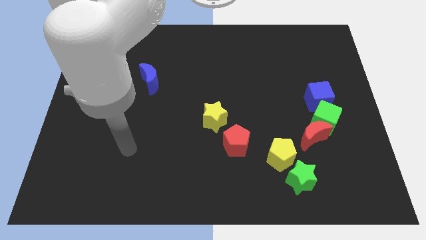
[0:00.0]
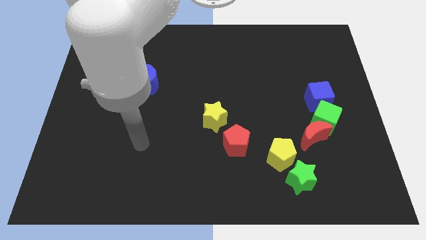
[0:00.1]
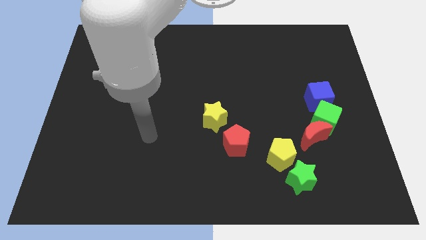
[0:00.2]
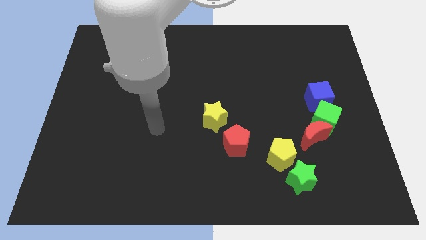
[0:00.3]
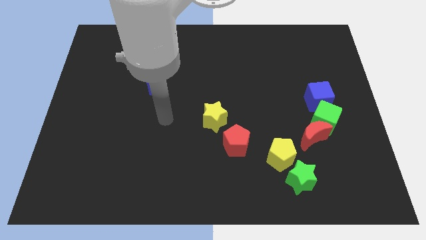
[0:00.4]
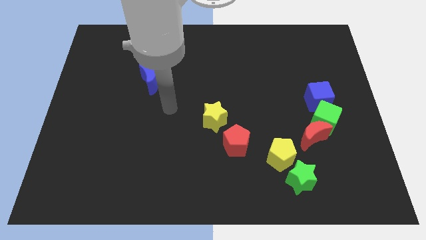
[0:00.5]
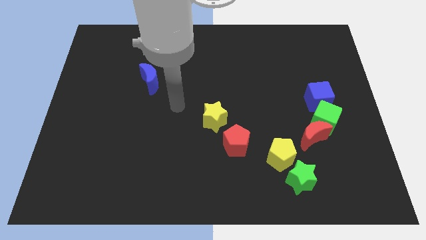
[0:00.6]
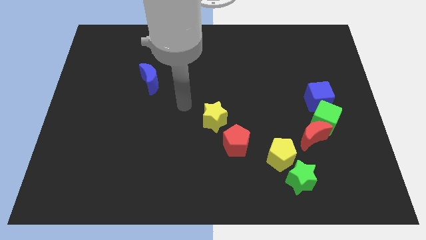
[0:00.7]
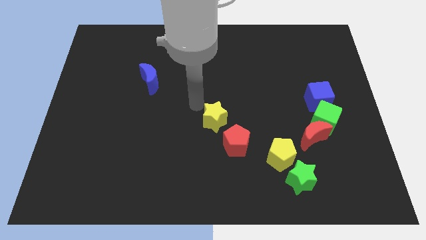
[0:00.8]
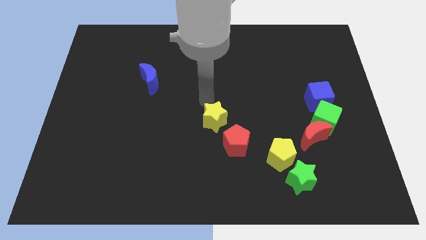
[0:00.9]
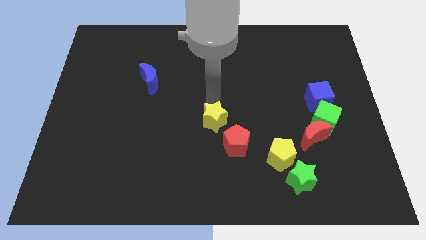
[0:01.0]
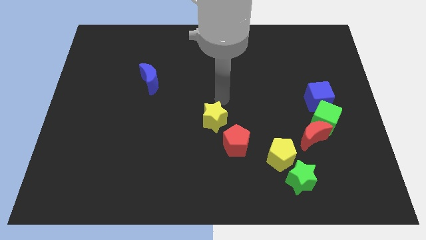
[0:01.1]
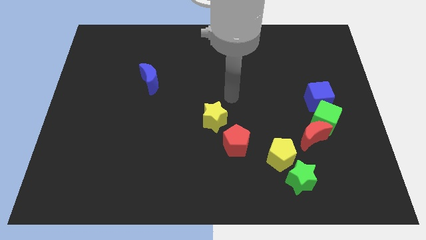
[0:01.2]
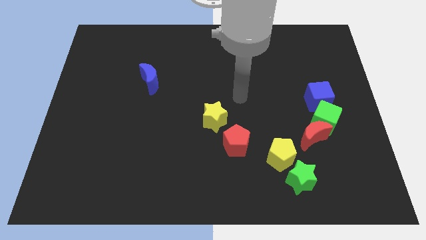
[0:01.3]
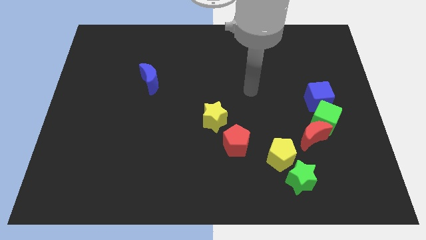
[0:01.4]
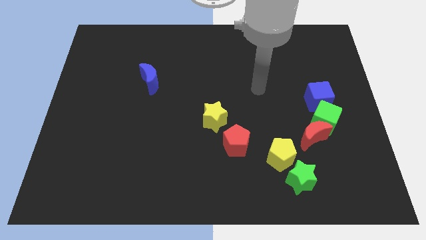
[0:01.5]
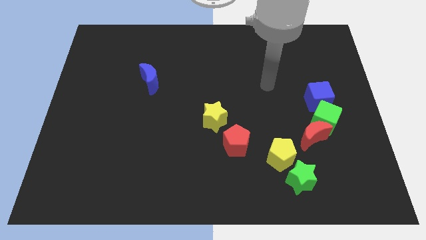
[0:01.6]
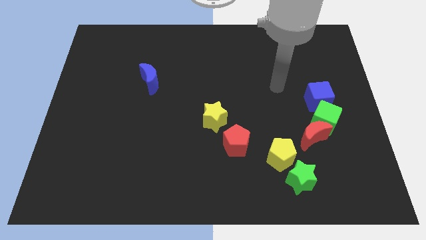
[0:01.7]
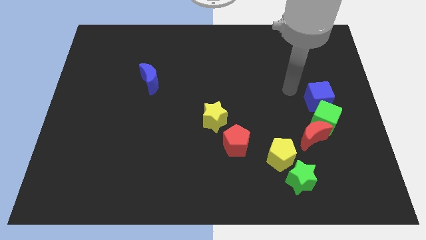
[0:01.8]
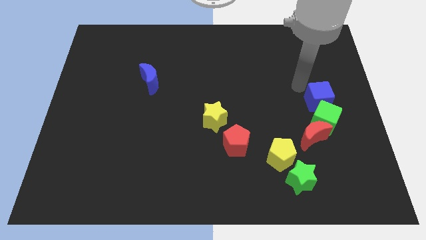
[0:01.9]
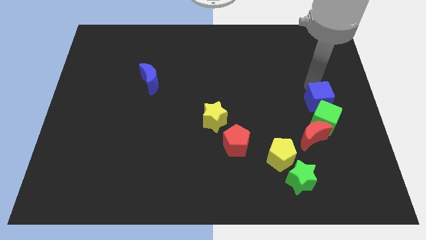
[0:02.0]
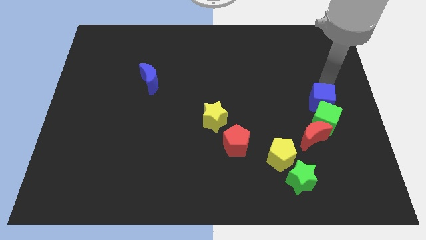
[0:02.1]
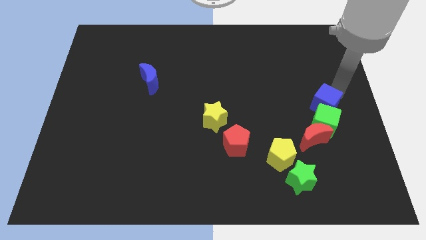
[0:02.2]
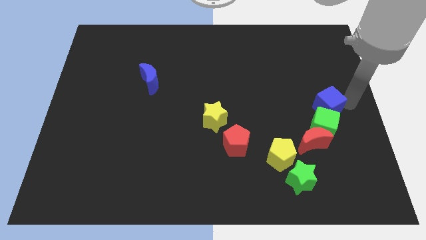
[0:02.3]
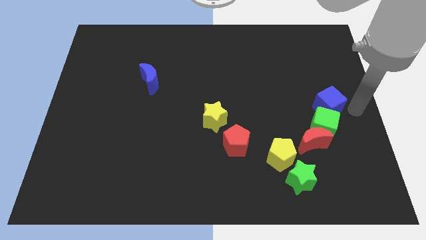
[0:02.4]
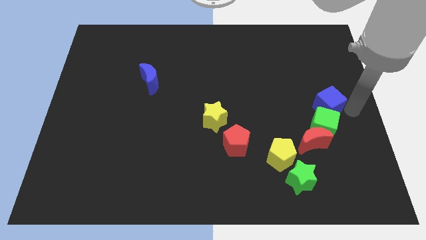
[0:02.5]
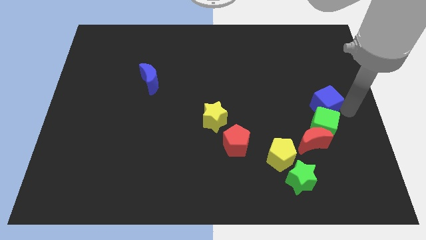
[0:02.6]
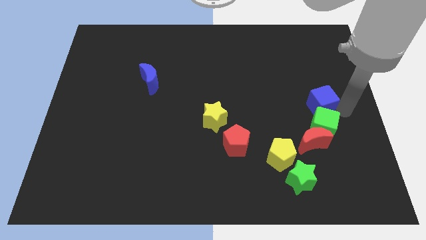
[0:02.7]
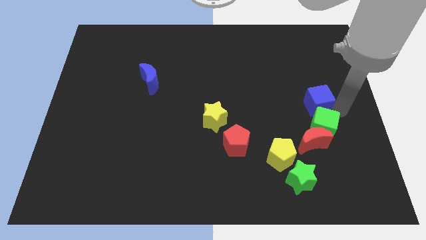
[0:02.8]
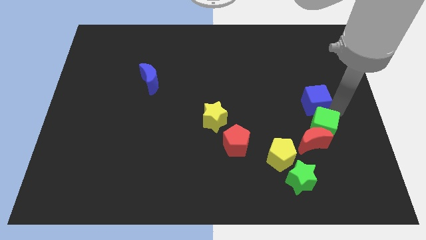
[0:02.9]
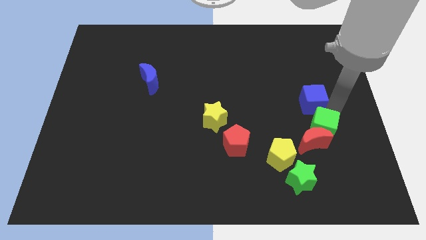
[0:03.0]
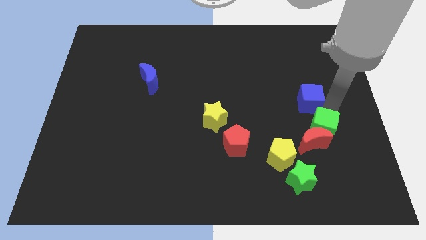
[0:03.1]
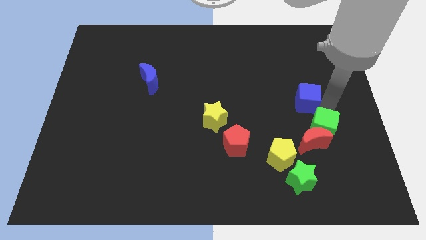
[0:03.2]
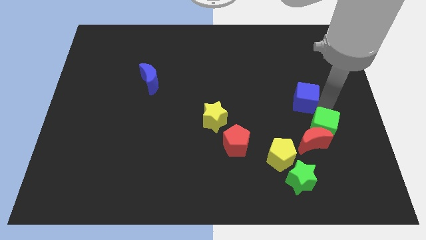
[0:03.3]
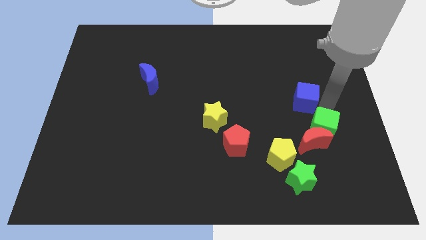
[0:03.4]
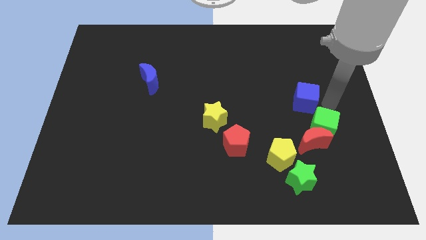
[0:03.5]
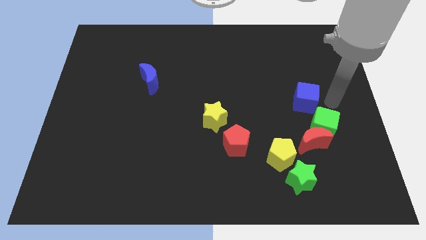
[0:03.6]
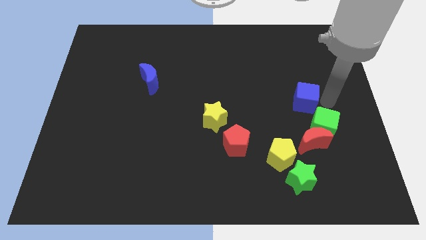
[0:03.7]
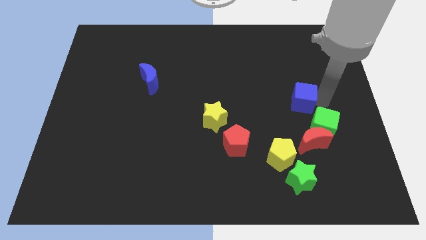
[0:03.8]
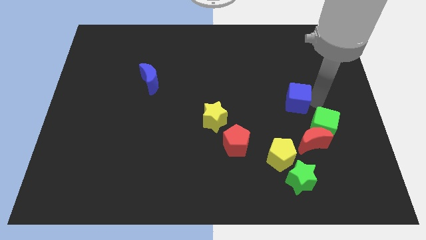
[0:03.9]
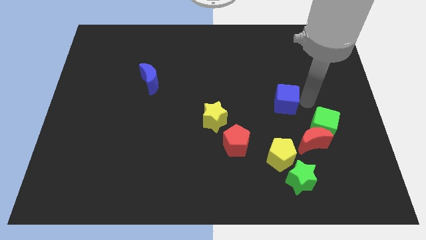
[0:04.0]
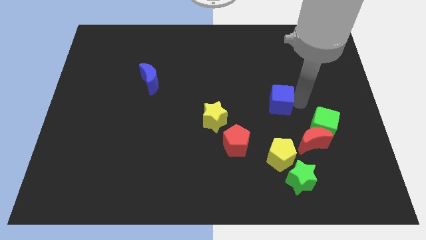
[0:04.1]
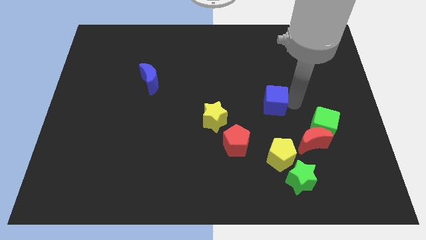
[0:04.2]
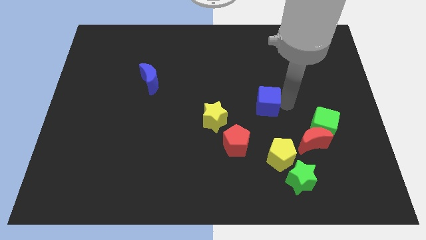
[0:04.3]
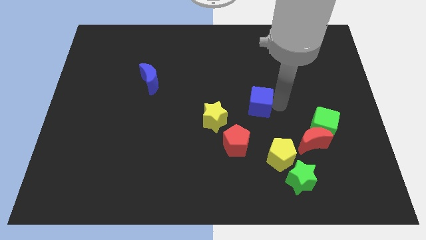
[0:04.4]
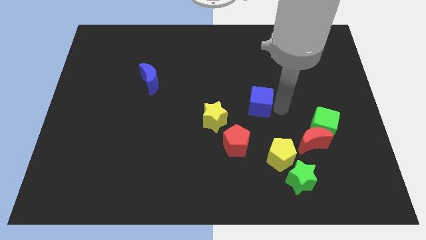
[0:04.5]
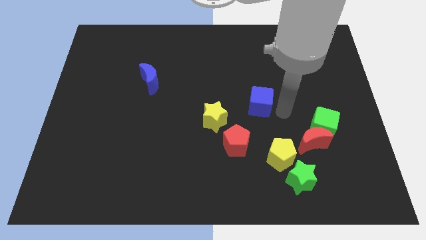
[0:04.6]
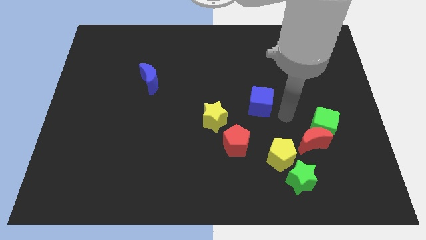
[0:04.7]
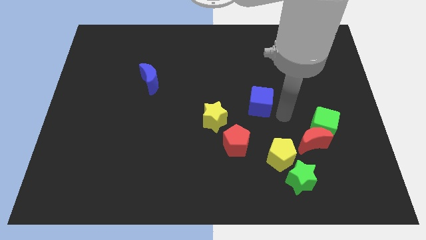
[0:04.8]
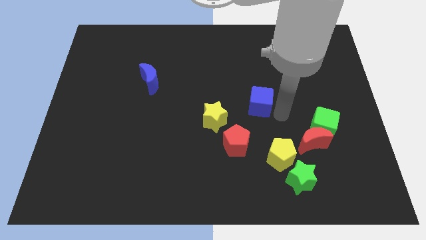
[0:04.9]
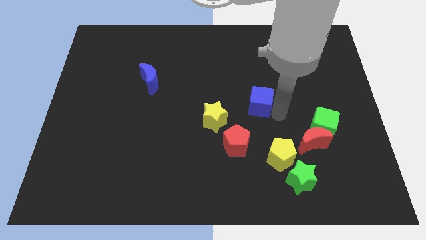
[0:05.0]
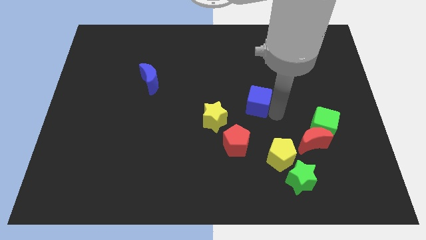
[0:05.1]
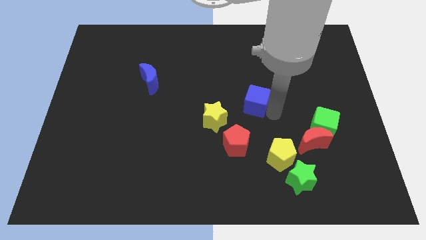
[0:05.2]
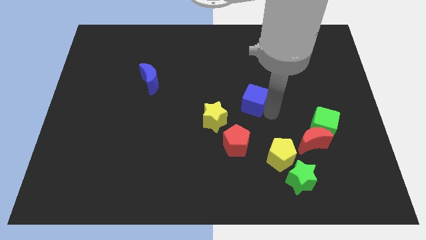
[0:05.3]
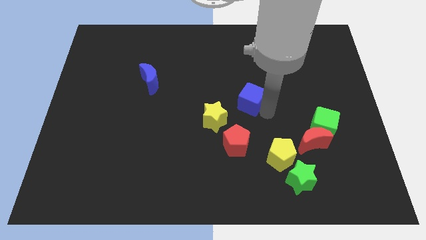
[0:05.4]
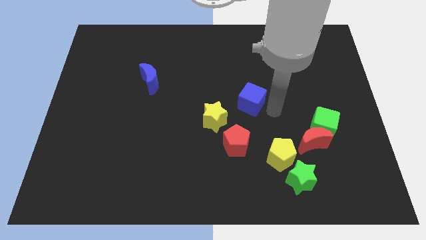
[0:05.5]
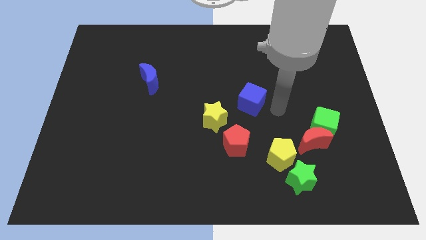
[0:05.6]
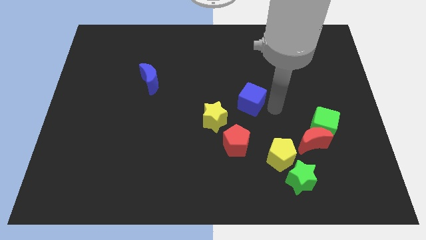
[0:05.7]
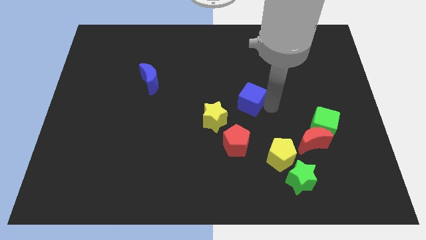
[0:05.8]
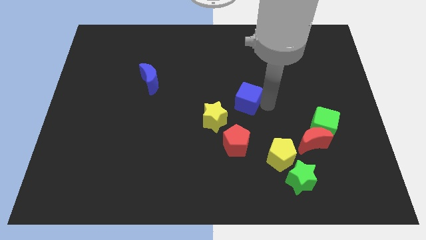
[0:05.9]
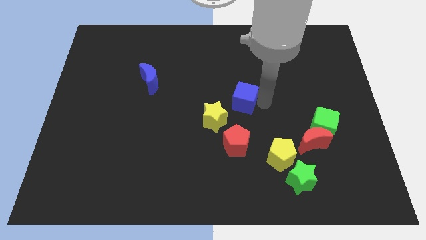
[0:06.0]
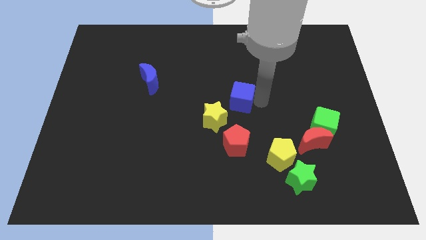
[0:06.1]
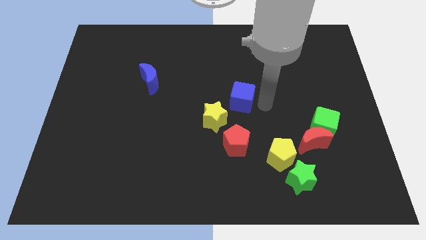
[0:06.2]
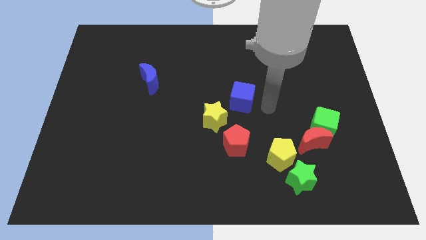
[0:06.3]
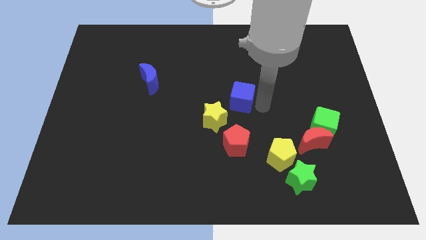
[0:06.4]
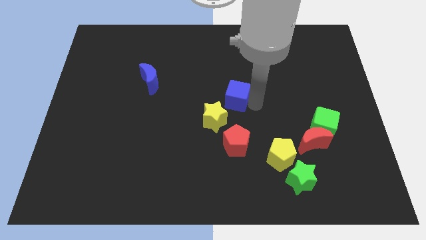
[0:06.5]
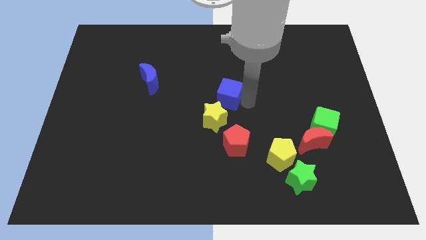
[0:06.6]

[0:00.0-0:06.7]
move the blue cube to the left

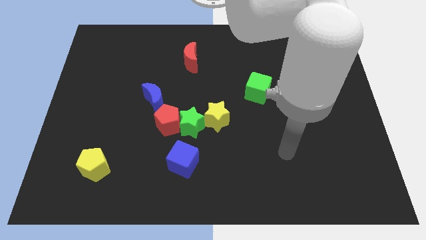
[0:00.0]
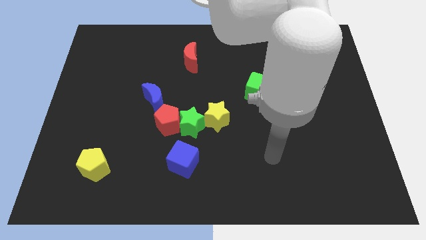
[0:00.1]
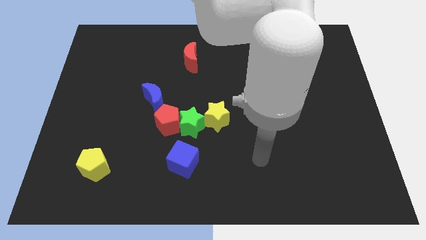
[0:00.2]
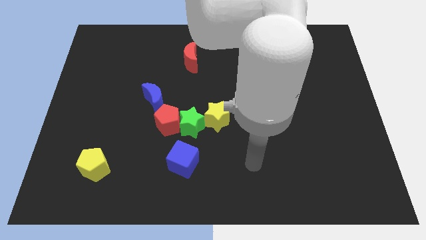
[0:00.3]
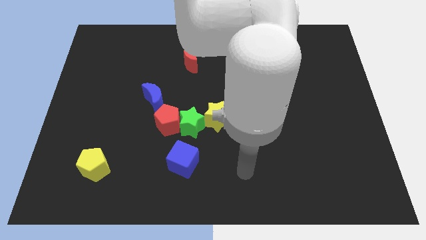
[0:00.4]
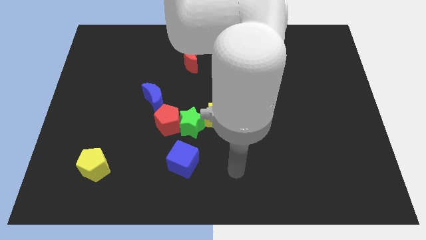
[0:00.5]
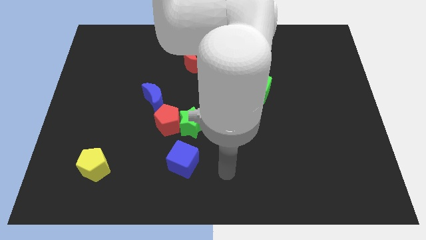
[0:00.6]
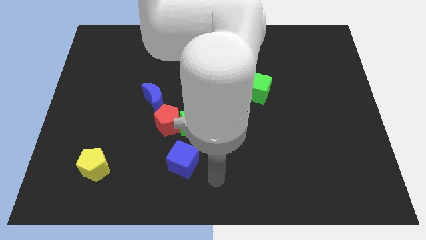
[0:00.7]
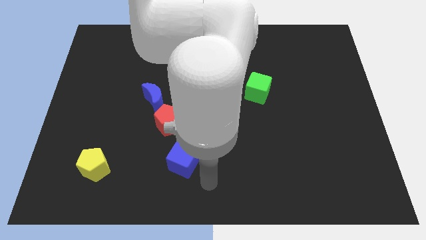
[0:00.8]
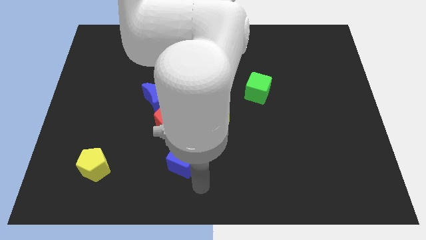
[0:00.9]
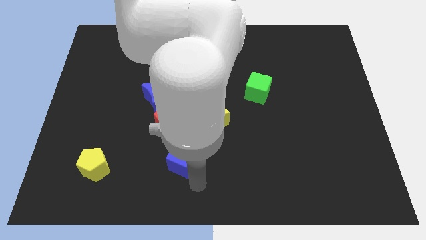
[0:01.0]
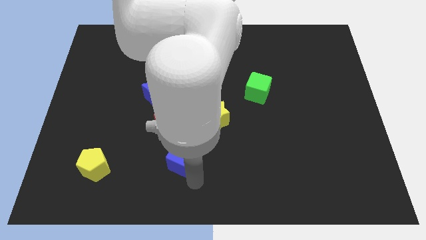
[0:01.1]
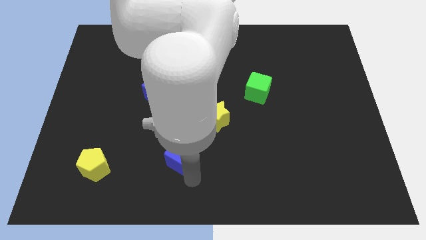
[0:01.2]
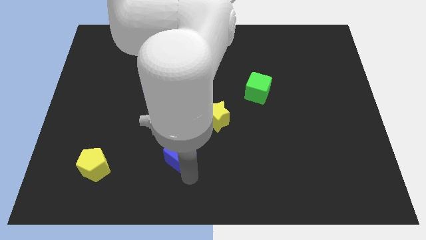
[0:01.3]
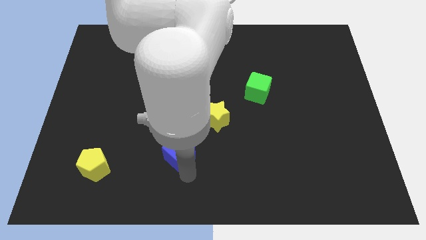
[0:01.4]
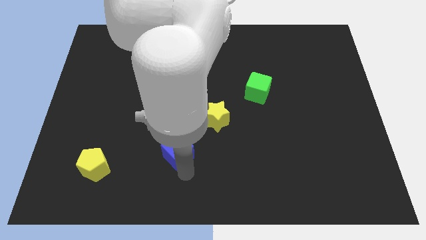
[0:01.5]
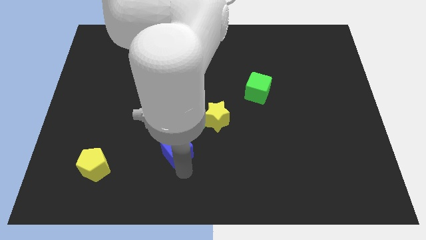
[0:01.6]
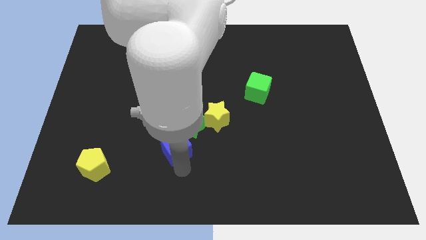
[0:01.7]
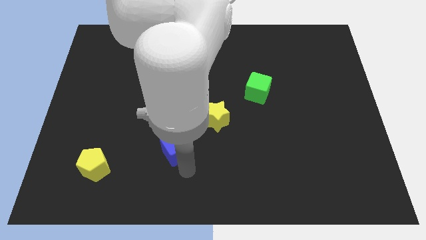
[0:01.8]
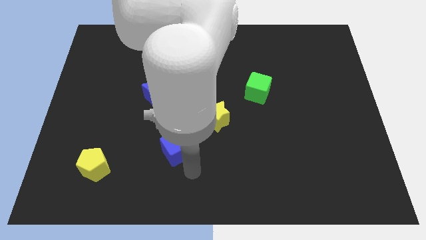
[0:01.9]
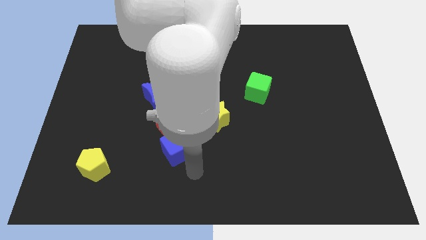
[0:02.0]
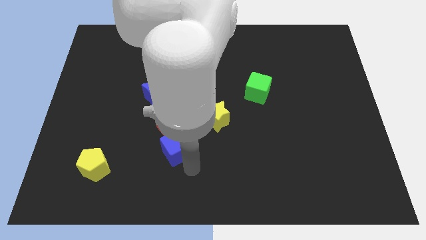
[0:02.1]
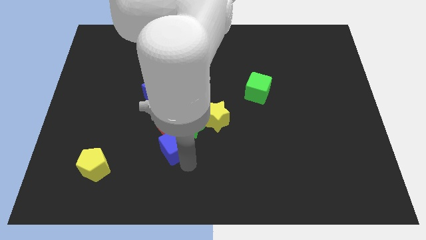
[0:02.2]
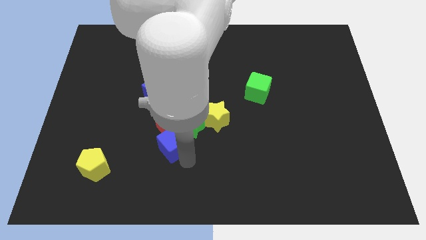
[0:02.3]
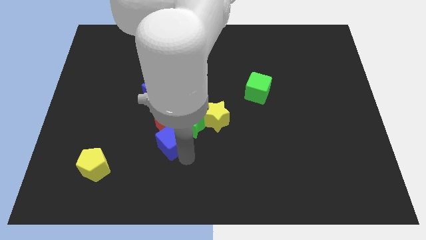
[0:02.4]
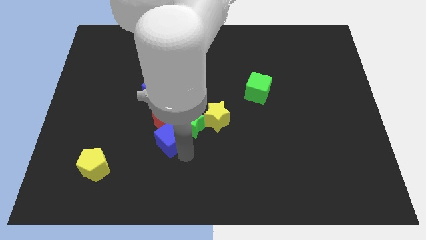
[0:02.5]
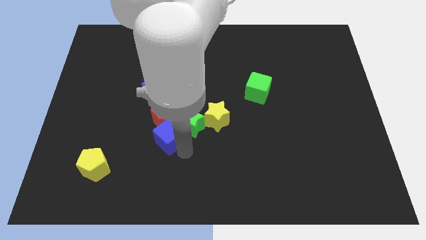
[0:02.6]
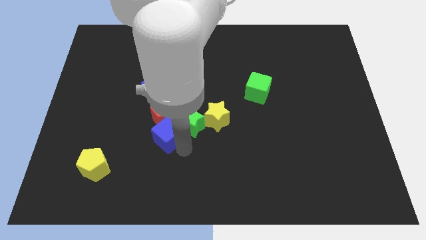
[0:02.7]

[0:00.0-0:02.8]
move the blue cube a little bit diagonally up and left
